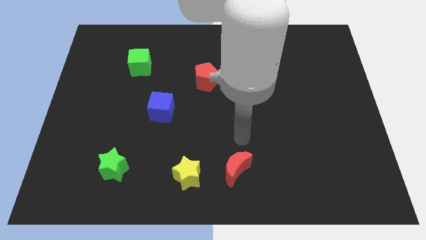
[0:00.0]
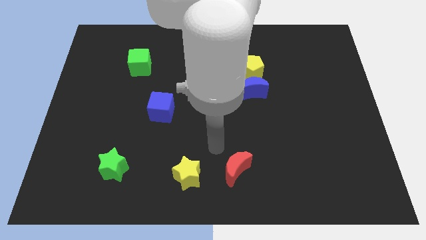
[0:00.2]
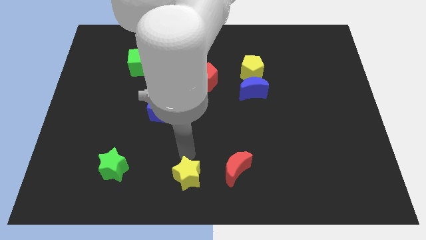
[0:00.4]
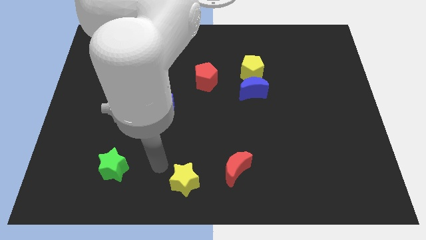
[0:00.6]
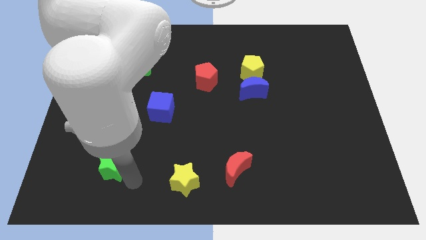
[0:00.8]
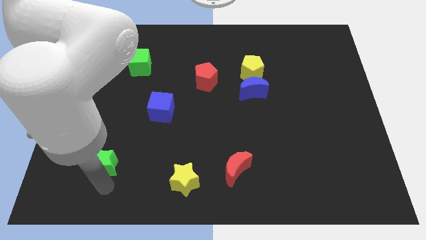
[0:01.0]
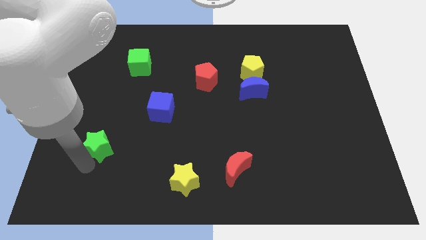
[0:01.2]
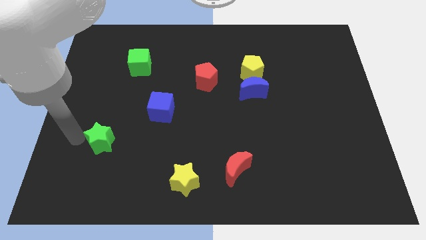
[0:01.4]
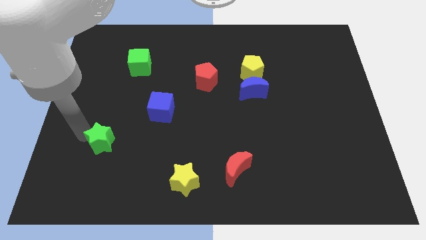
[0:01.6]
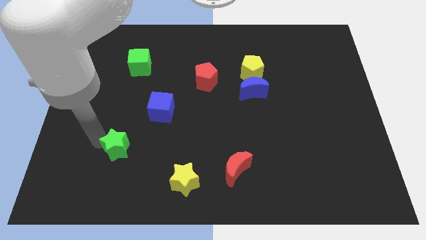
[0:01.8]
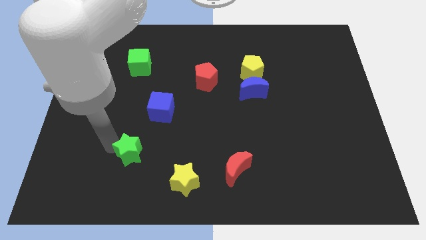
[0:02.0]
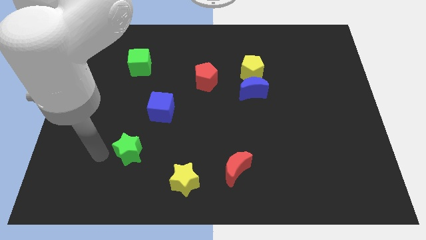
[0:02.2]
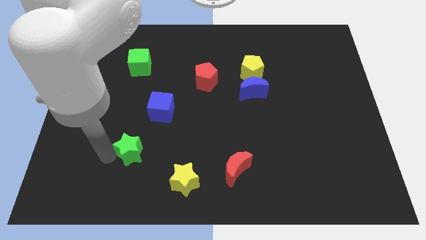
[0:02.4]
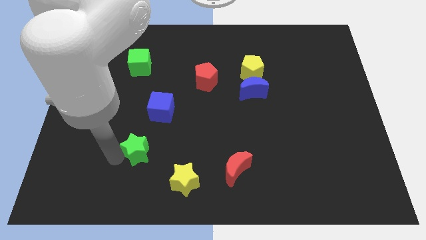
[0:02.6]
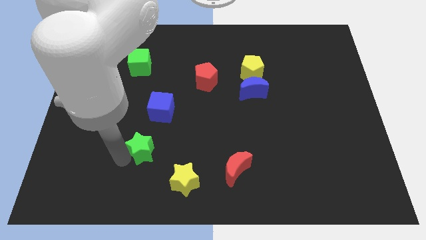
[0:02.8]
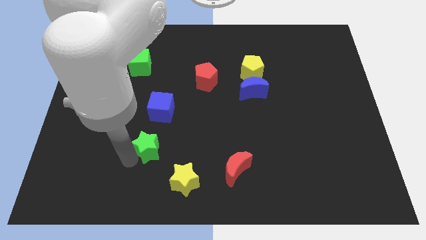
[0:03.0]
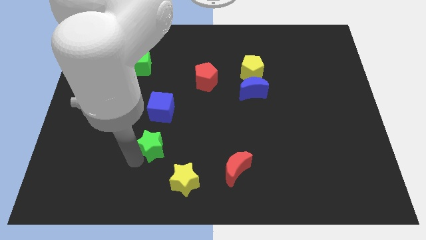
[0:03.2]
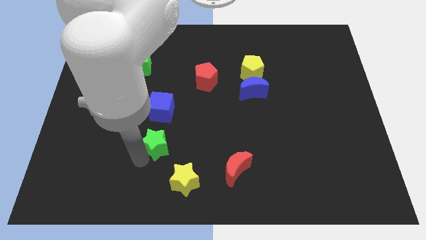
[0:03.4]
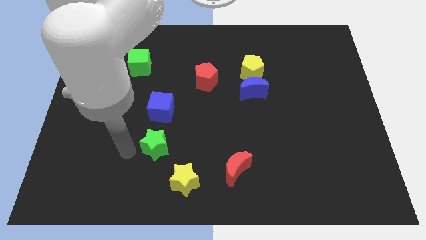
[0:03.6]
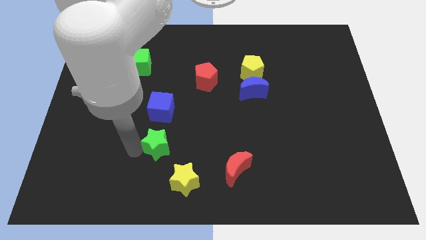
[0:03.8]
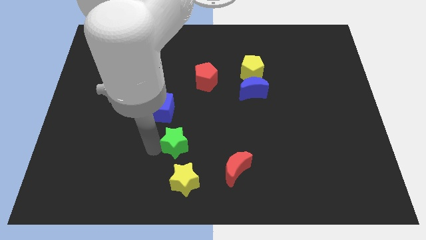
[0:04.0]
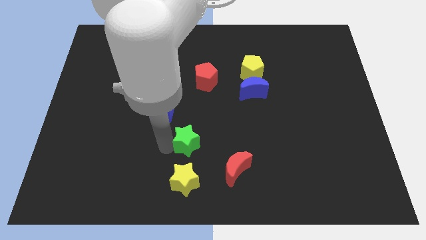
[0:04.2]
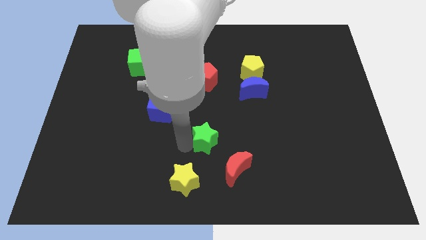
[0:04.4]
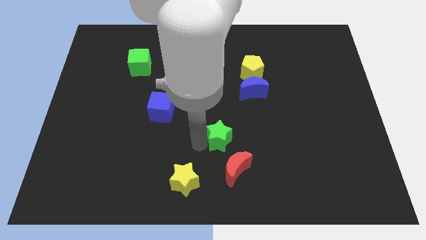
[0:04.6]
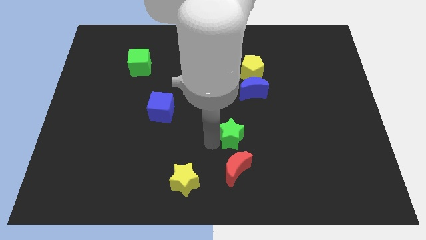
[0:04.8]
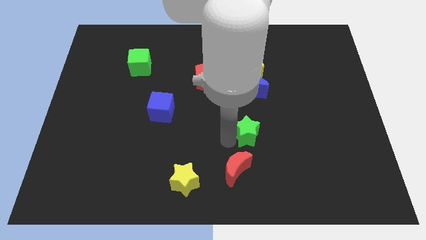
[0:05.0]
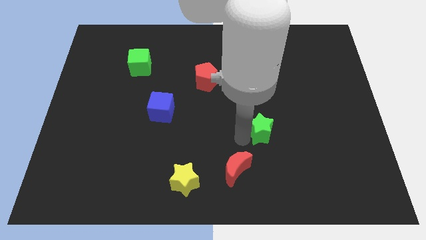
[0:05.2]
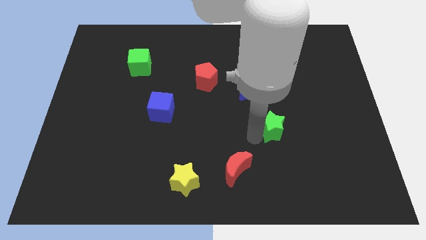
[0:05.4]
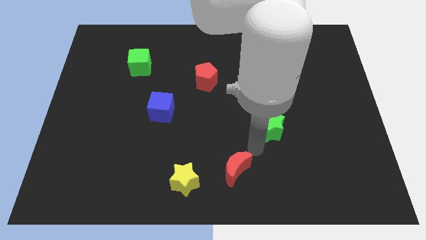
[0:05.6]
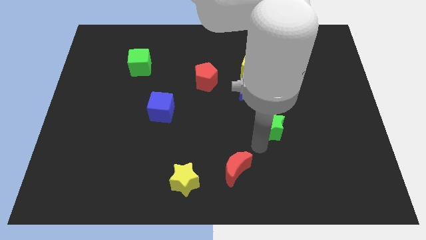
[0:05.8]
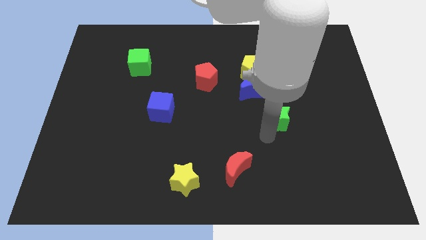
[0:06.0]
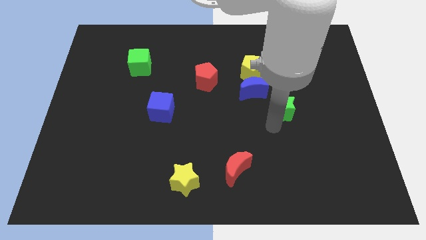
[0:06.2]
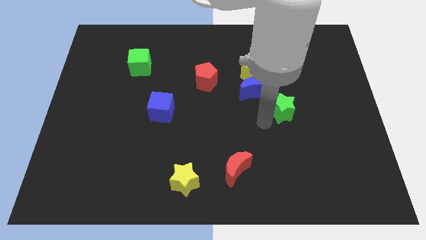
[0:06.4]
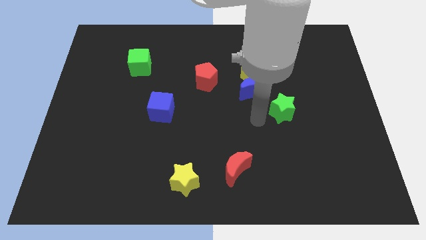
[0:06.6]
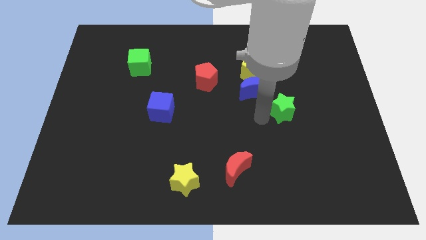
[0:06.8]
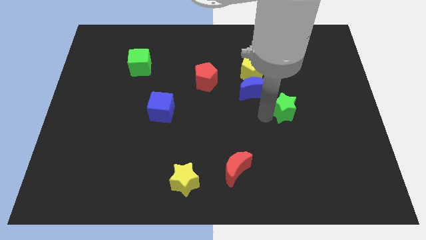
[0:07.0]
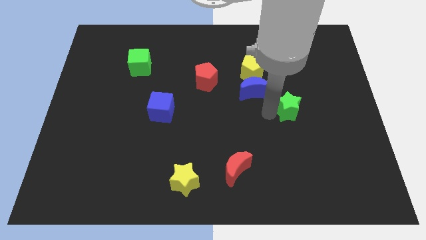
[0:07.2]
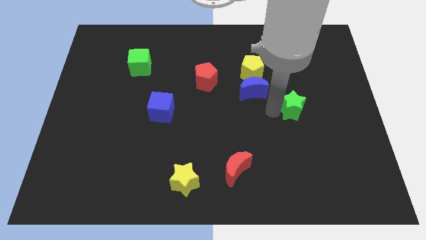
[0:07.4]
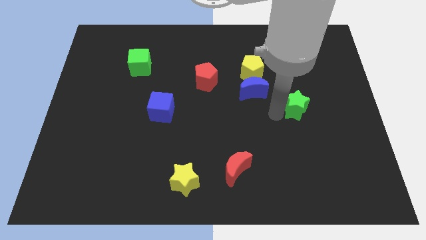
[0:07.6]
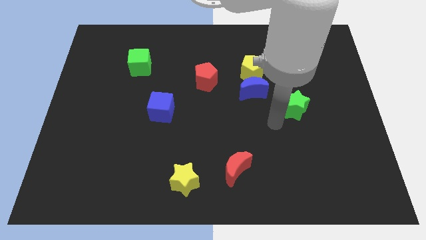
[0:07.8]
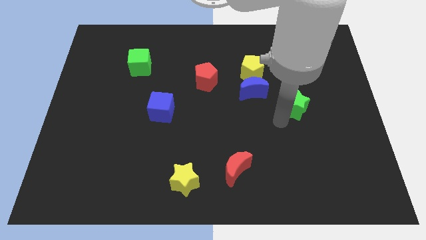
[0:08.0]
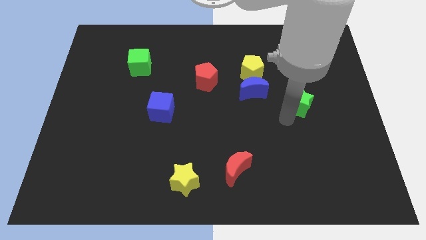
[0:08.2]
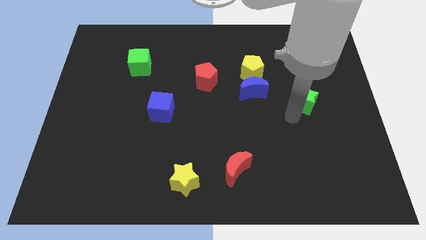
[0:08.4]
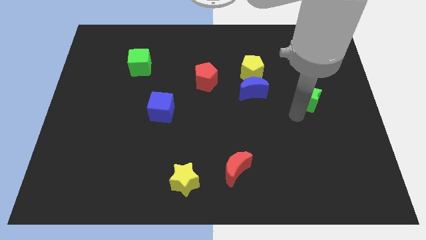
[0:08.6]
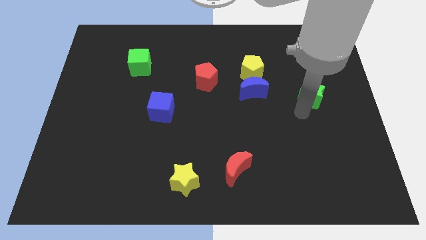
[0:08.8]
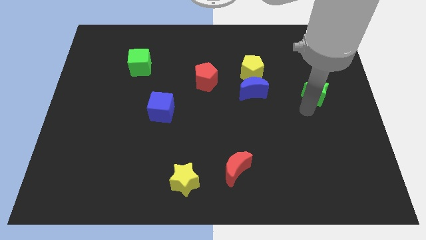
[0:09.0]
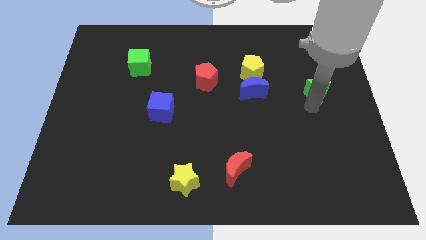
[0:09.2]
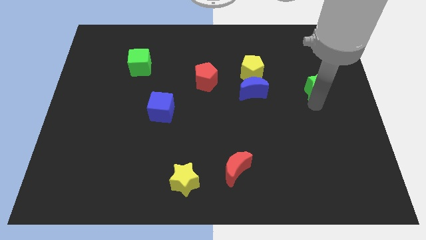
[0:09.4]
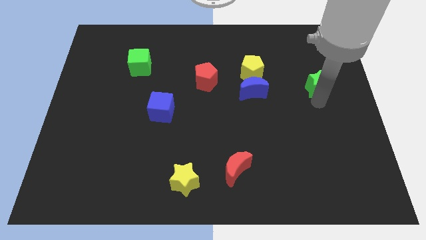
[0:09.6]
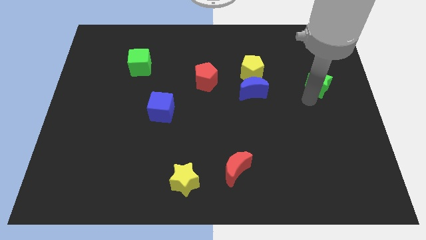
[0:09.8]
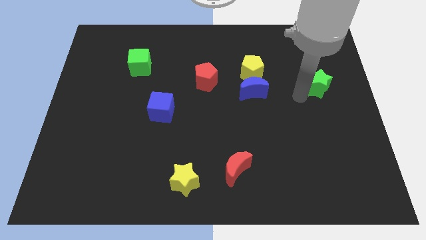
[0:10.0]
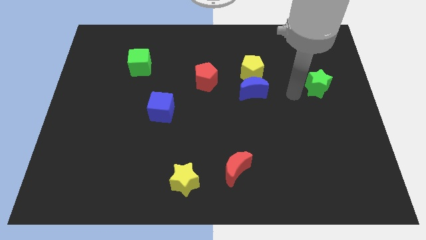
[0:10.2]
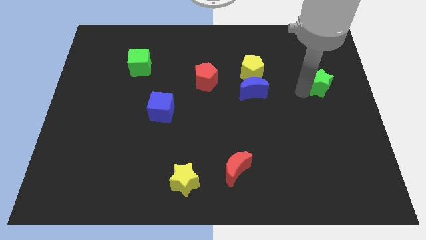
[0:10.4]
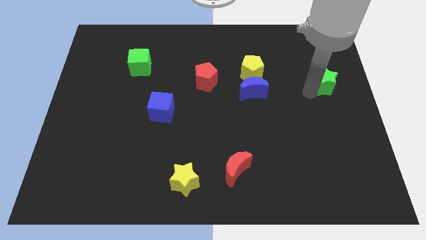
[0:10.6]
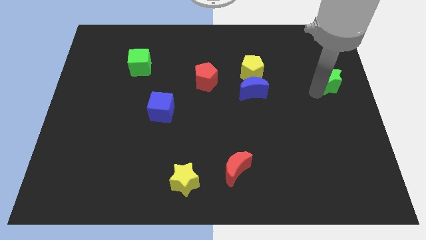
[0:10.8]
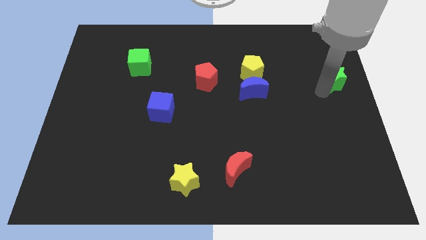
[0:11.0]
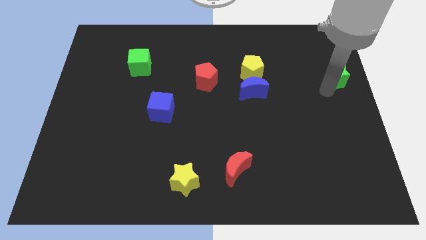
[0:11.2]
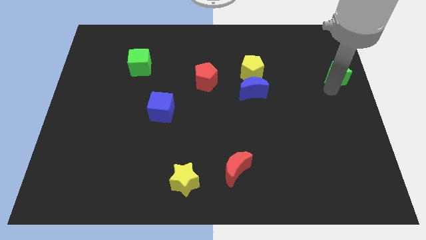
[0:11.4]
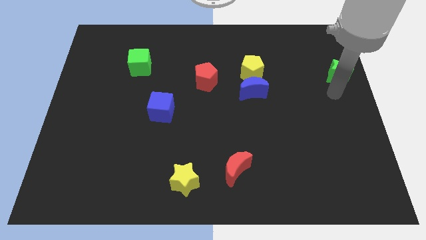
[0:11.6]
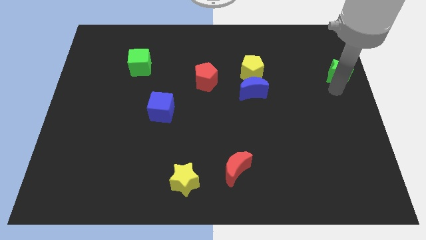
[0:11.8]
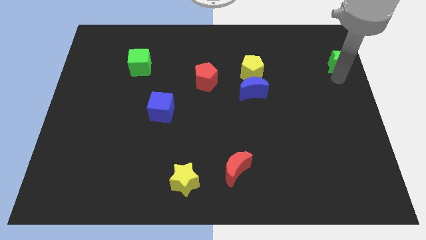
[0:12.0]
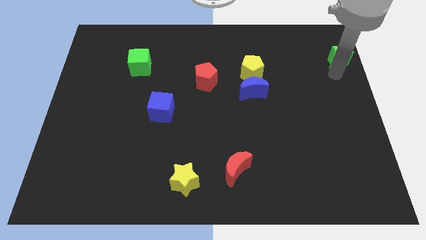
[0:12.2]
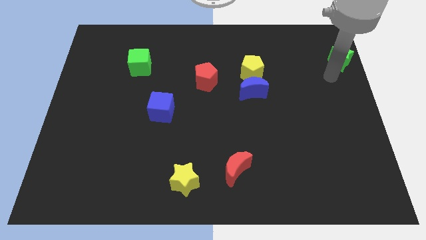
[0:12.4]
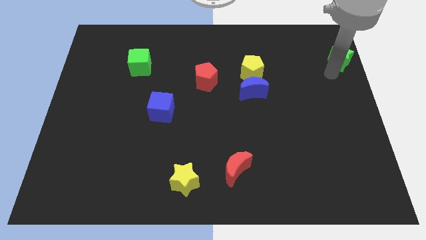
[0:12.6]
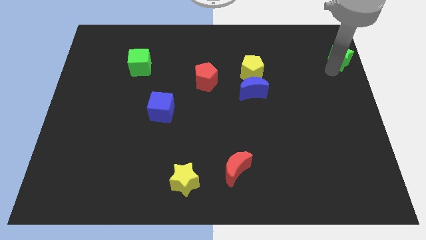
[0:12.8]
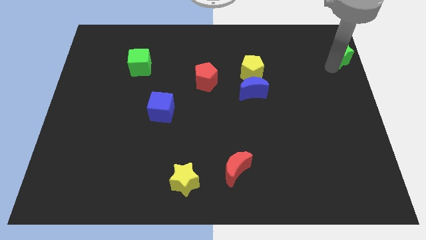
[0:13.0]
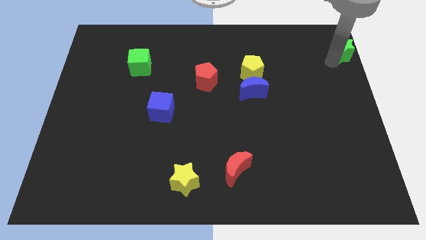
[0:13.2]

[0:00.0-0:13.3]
slide the green star to the top right corner
